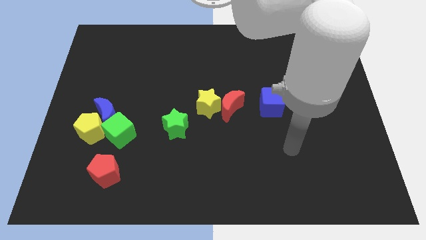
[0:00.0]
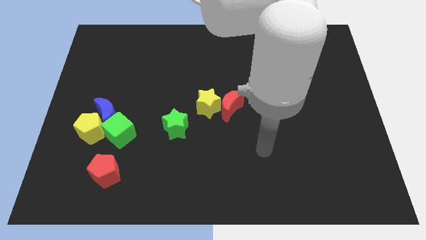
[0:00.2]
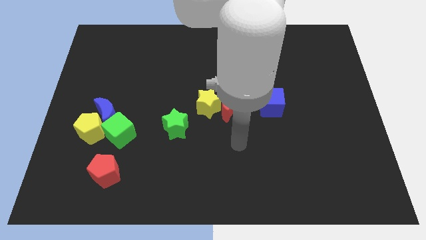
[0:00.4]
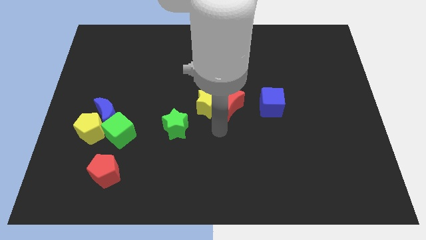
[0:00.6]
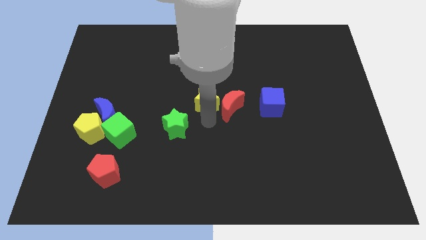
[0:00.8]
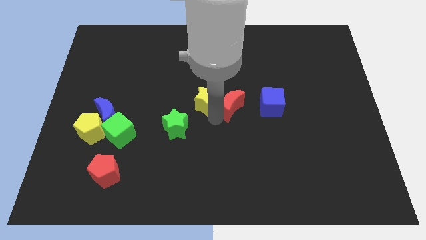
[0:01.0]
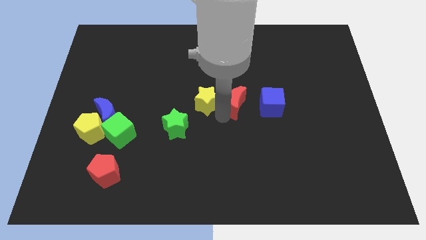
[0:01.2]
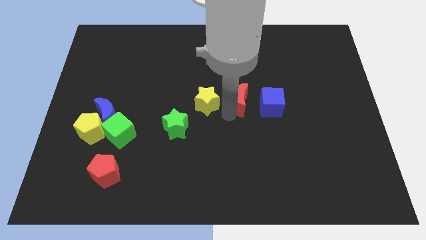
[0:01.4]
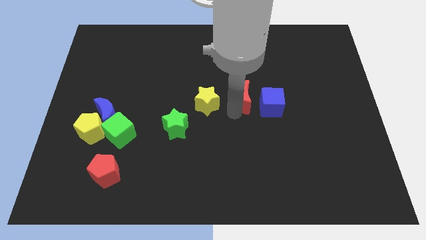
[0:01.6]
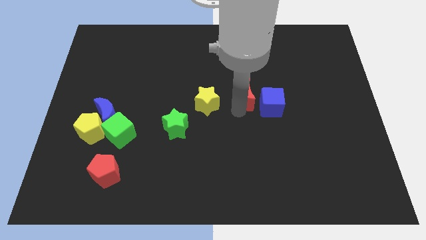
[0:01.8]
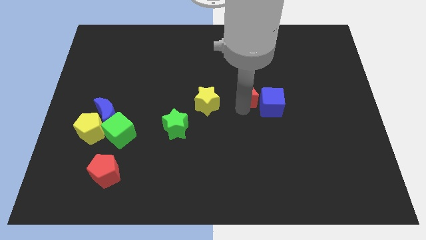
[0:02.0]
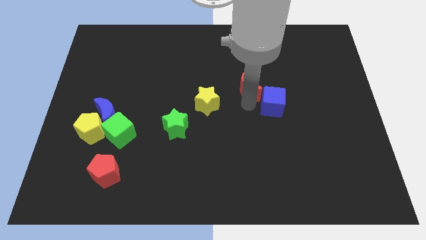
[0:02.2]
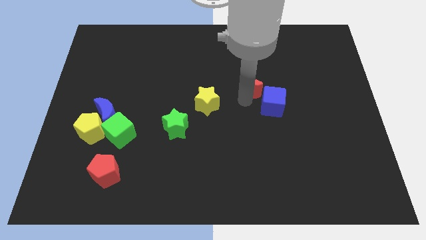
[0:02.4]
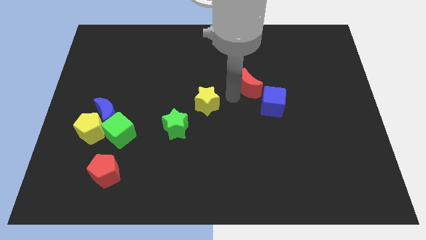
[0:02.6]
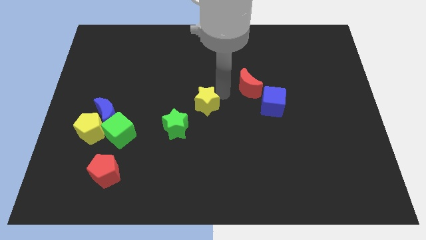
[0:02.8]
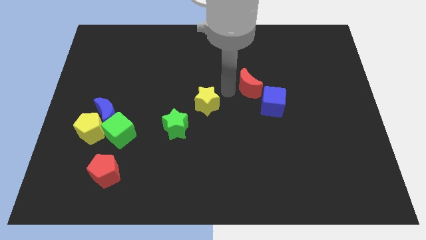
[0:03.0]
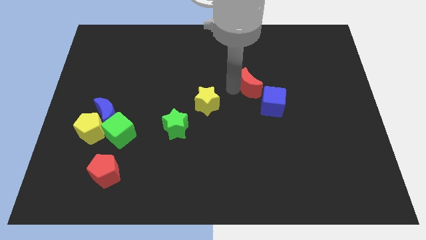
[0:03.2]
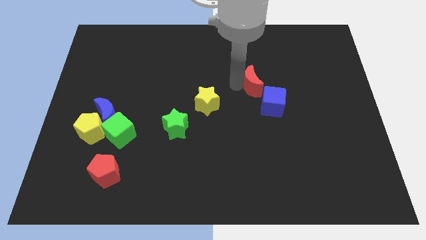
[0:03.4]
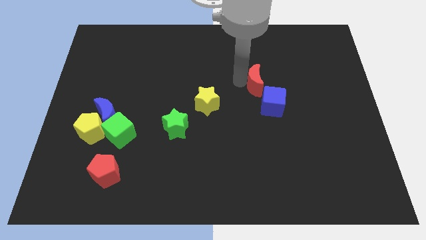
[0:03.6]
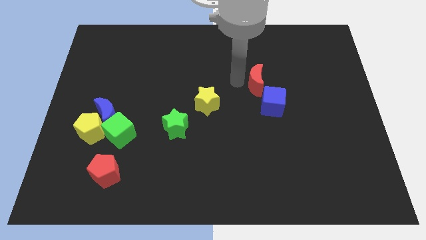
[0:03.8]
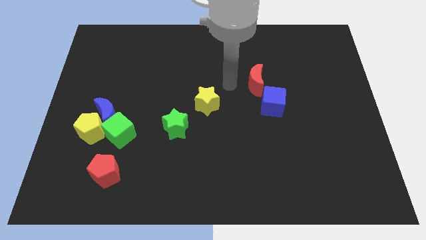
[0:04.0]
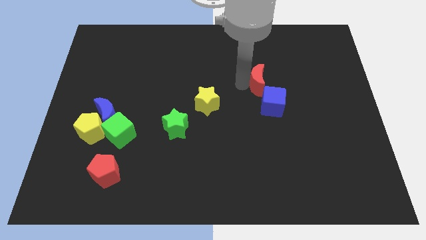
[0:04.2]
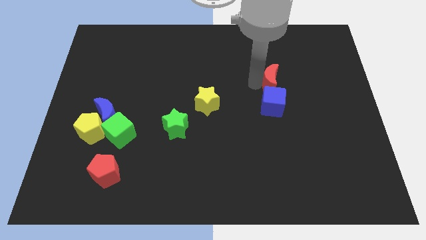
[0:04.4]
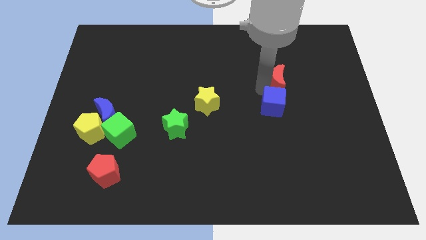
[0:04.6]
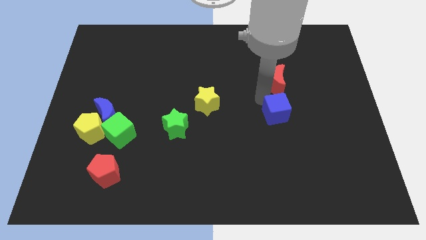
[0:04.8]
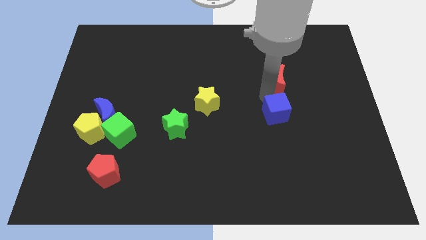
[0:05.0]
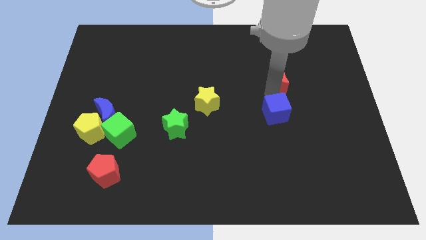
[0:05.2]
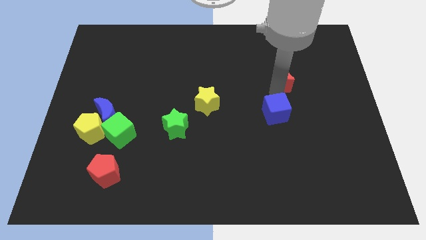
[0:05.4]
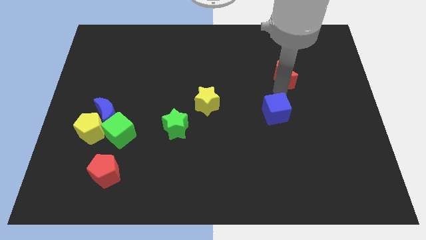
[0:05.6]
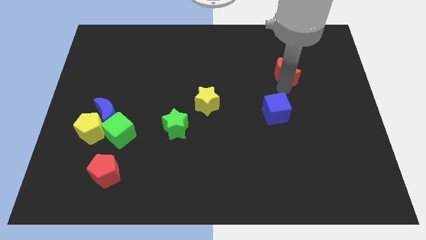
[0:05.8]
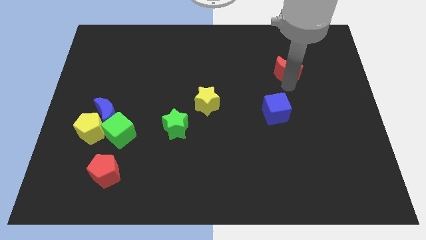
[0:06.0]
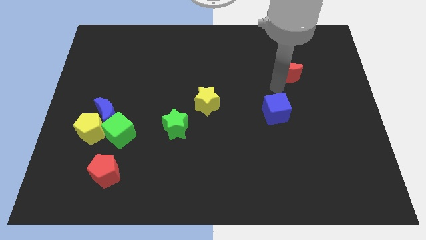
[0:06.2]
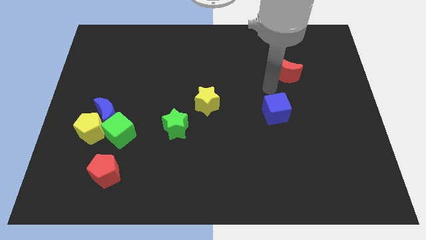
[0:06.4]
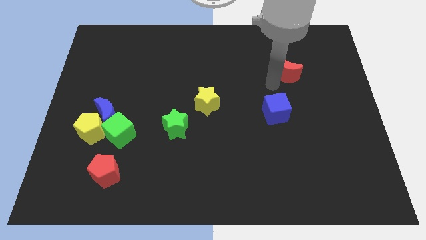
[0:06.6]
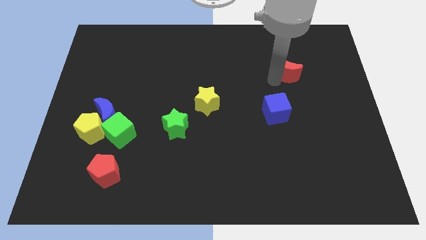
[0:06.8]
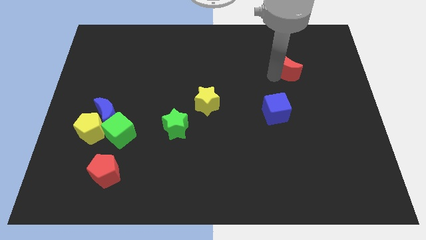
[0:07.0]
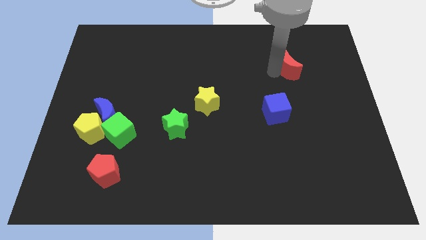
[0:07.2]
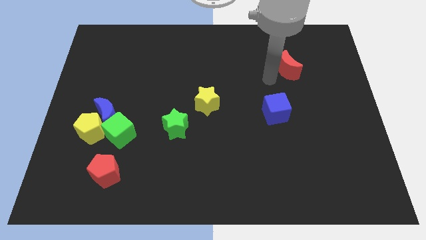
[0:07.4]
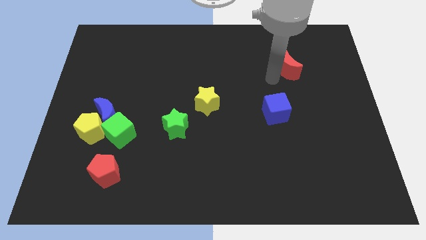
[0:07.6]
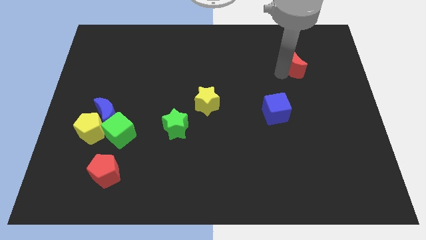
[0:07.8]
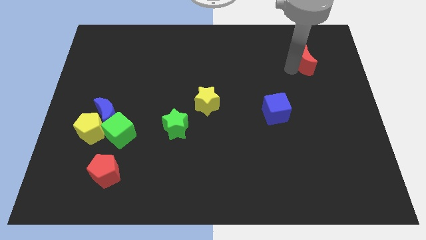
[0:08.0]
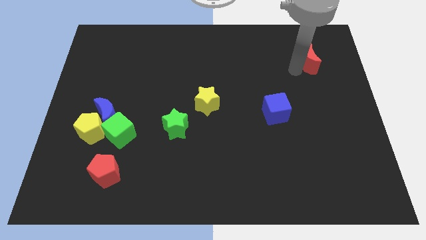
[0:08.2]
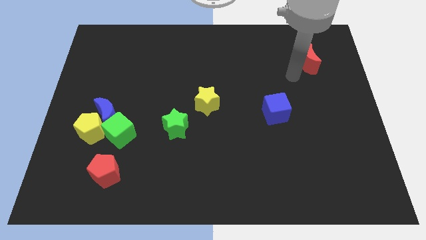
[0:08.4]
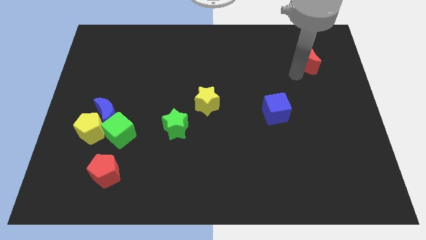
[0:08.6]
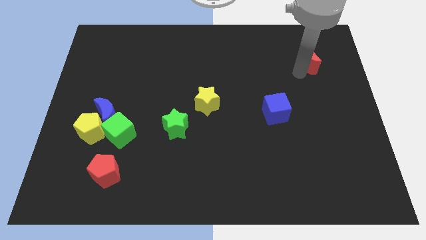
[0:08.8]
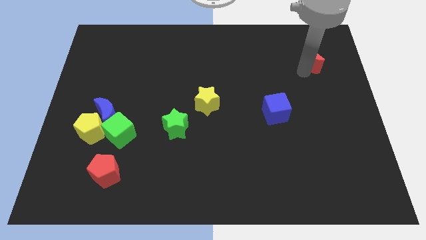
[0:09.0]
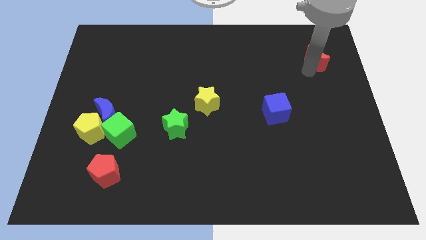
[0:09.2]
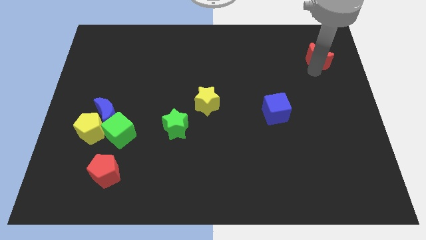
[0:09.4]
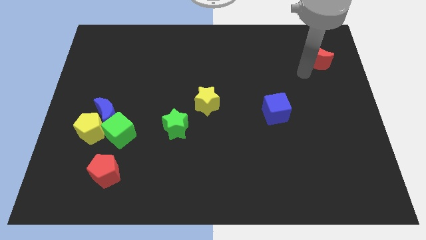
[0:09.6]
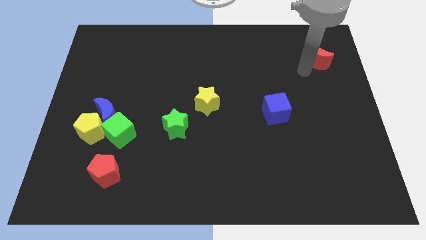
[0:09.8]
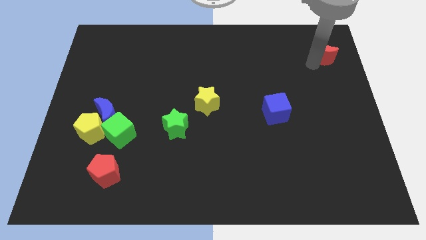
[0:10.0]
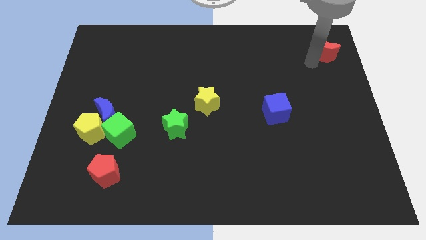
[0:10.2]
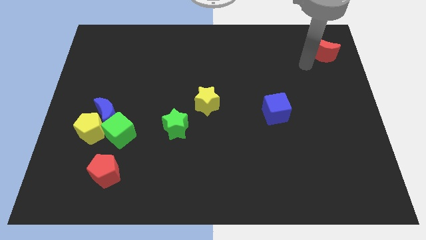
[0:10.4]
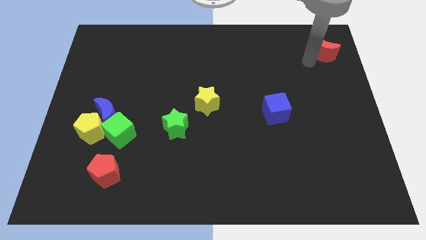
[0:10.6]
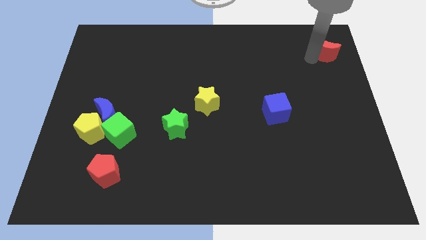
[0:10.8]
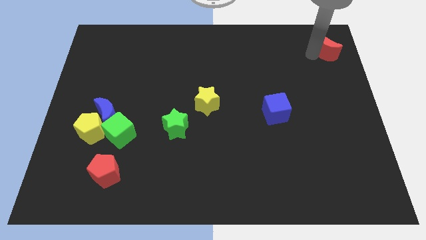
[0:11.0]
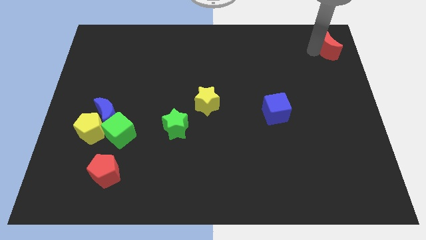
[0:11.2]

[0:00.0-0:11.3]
put the red moon to the top right corner

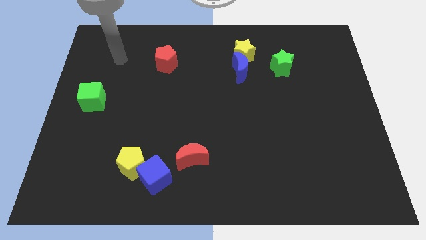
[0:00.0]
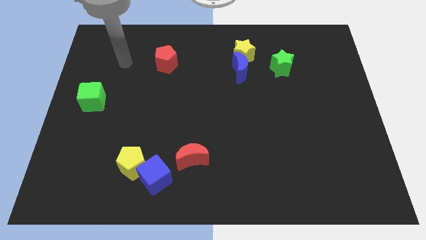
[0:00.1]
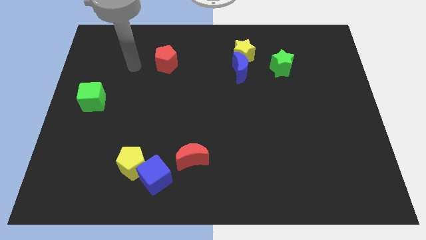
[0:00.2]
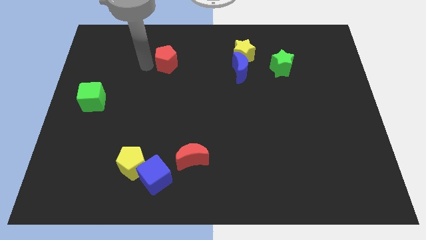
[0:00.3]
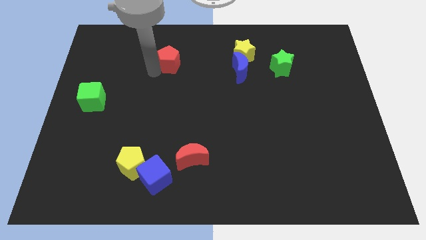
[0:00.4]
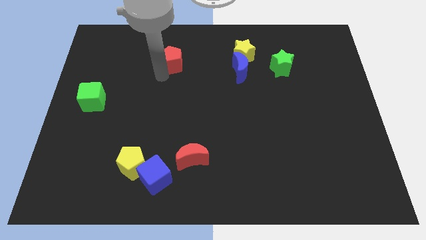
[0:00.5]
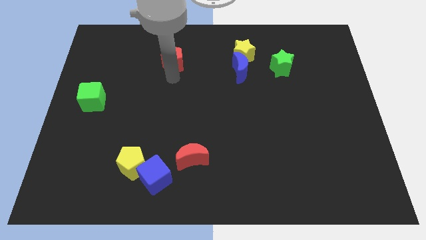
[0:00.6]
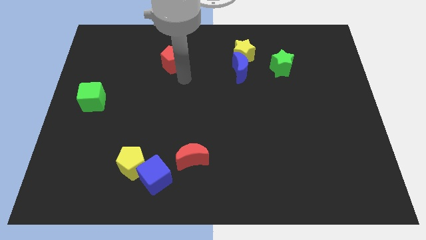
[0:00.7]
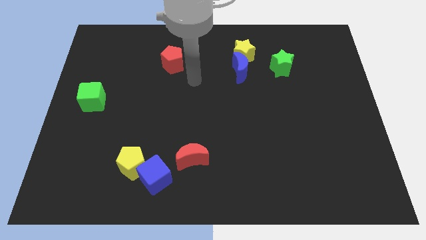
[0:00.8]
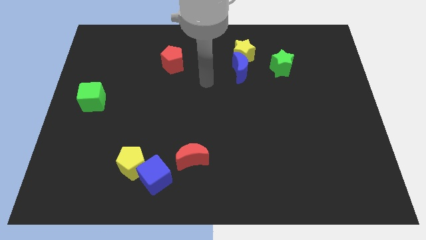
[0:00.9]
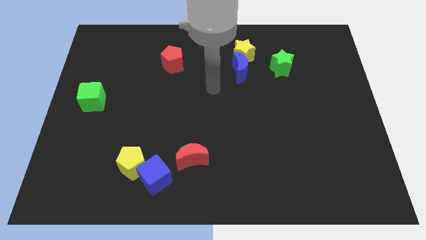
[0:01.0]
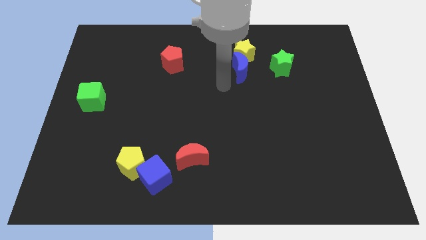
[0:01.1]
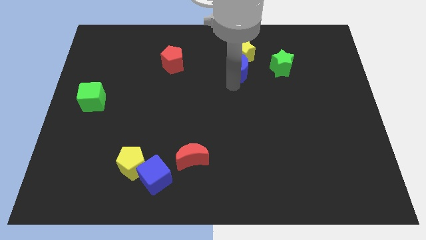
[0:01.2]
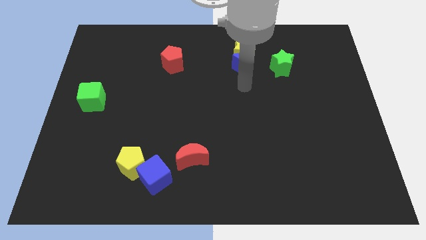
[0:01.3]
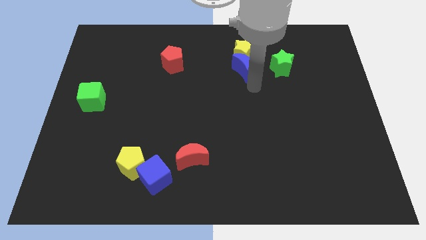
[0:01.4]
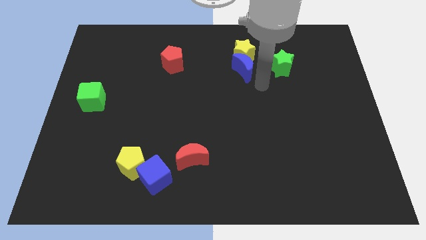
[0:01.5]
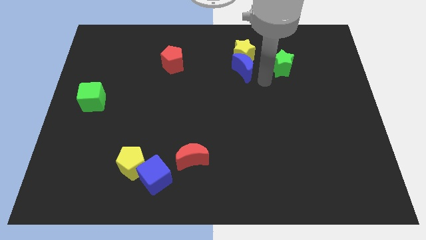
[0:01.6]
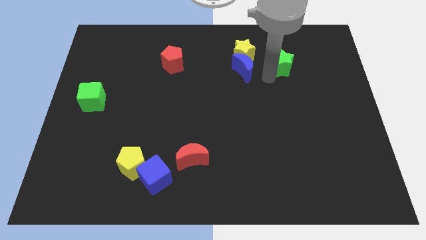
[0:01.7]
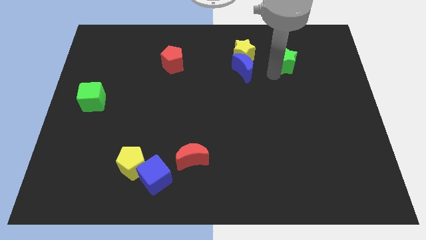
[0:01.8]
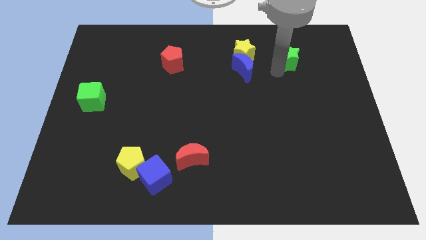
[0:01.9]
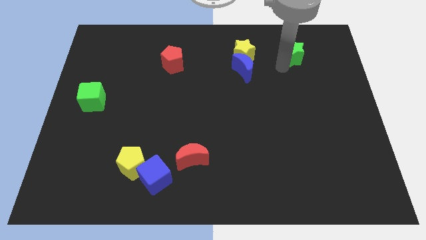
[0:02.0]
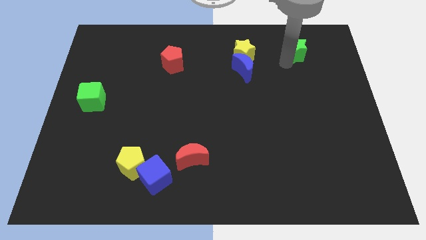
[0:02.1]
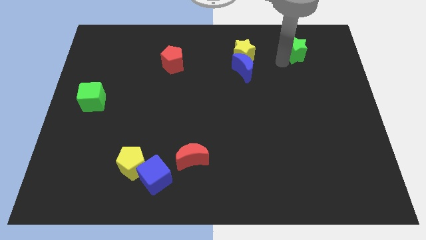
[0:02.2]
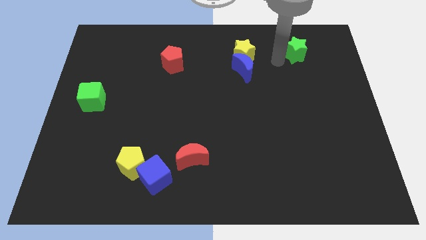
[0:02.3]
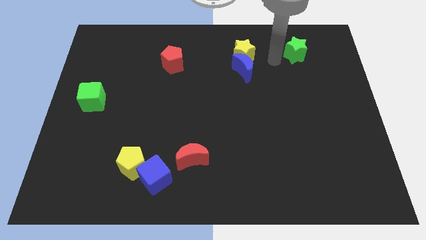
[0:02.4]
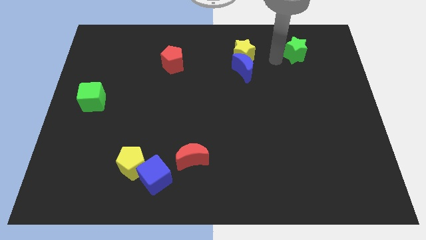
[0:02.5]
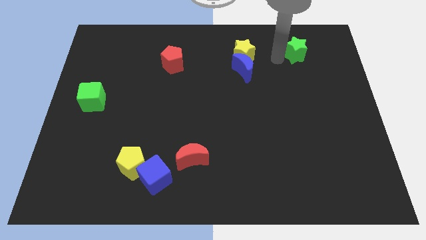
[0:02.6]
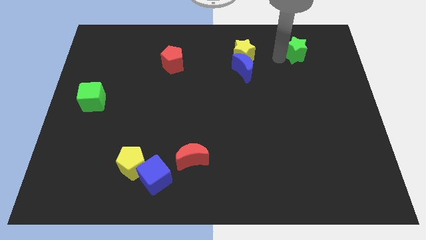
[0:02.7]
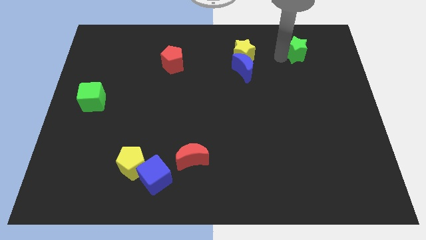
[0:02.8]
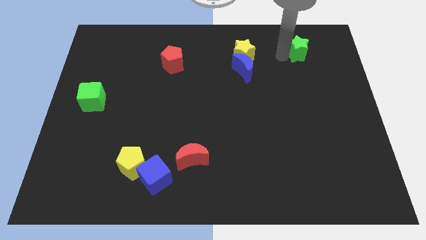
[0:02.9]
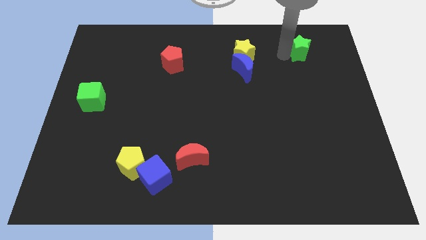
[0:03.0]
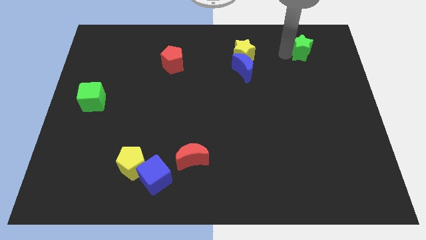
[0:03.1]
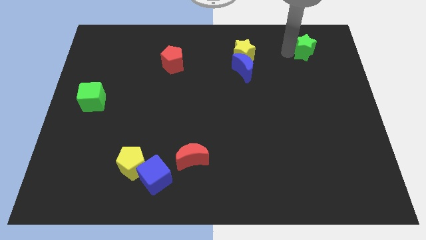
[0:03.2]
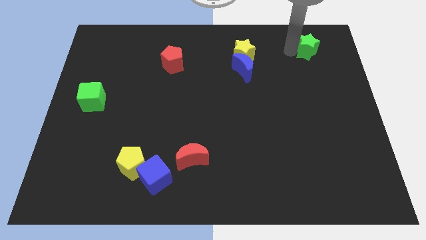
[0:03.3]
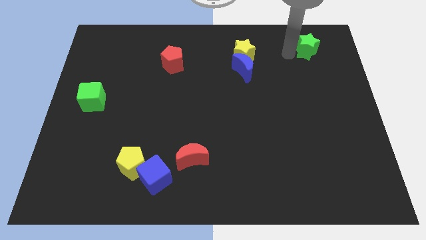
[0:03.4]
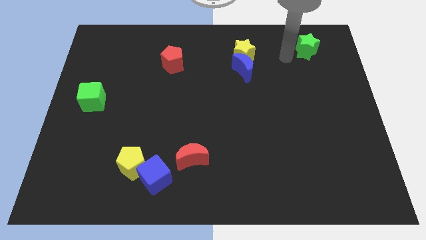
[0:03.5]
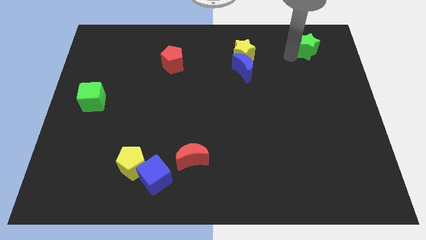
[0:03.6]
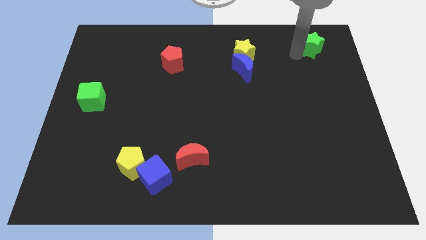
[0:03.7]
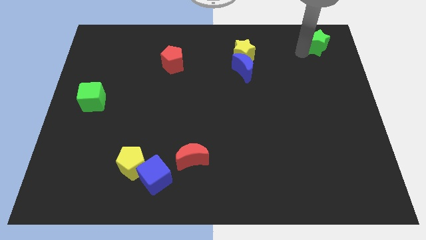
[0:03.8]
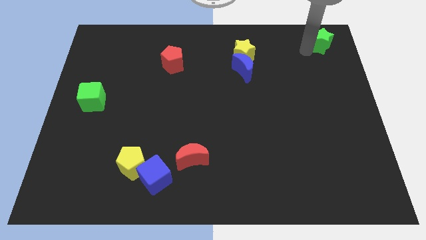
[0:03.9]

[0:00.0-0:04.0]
move the green star to the top right corner
